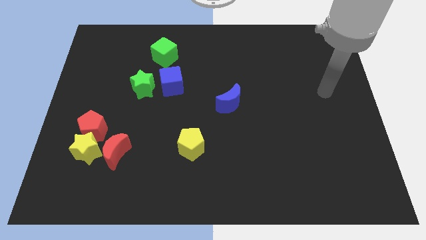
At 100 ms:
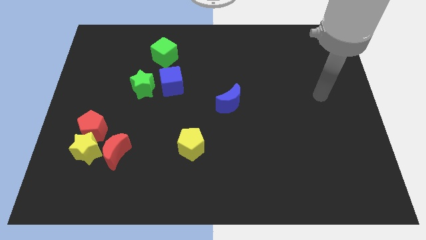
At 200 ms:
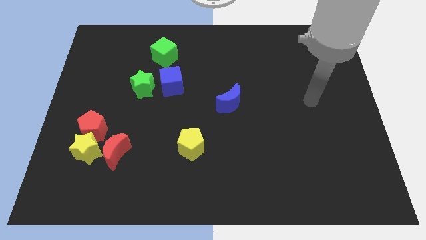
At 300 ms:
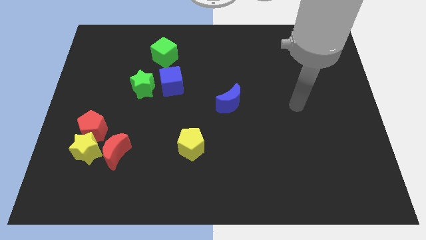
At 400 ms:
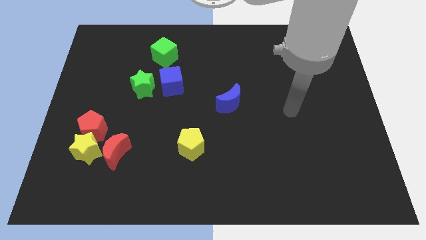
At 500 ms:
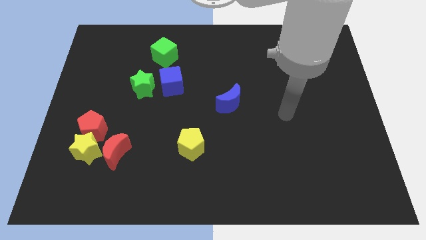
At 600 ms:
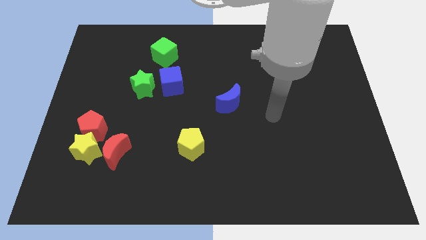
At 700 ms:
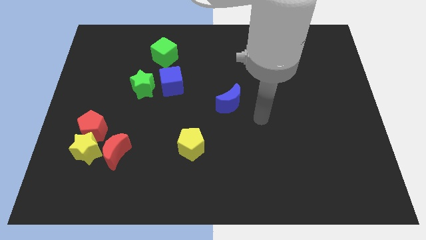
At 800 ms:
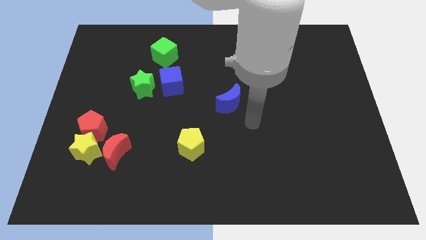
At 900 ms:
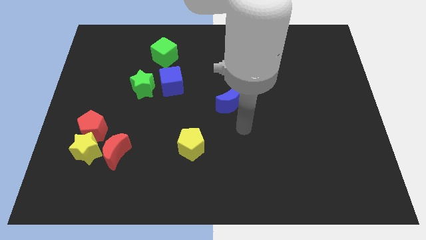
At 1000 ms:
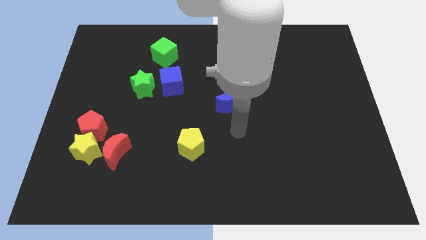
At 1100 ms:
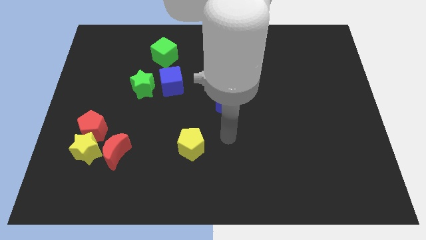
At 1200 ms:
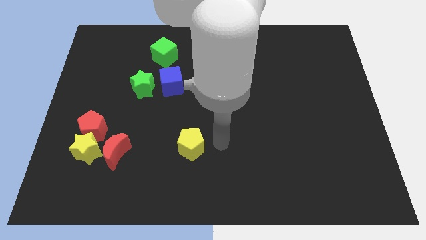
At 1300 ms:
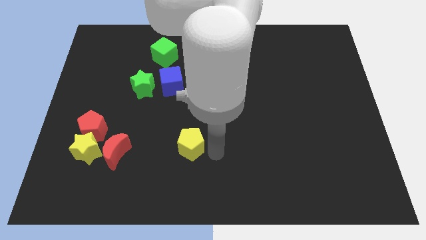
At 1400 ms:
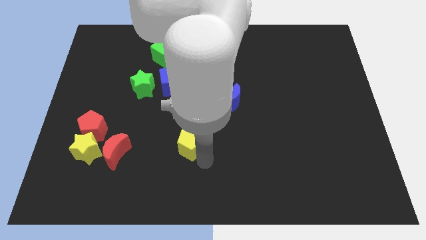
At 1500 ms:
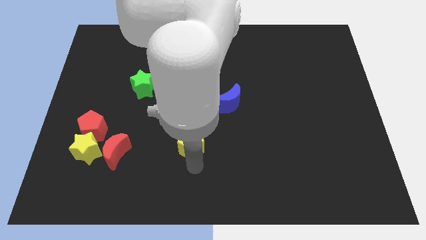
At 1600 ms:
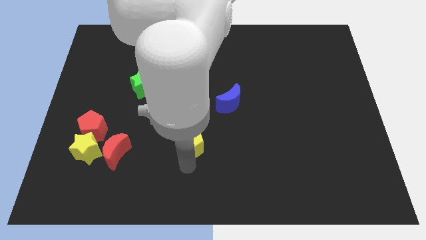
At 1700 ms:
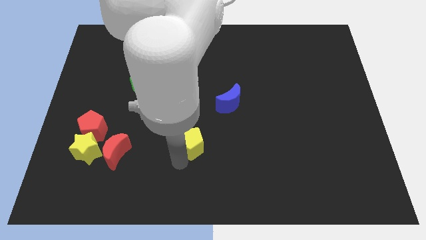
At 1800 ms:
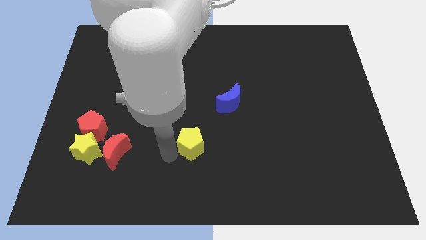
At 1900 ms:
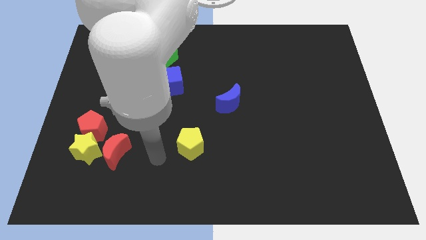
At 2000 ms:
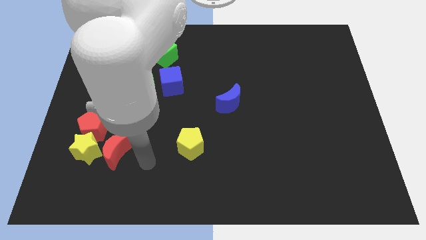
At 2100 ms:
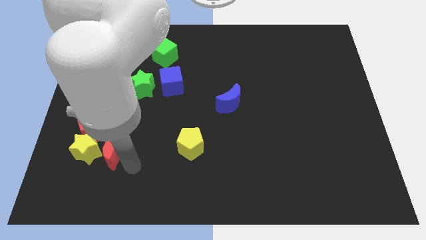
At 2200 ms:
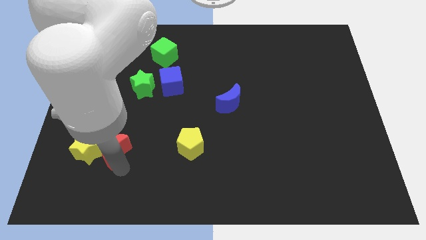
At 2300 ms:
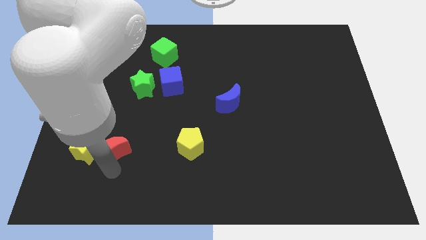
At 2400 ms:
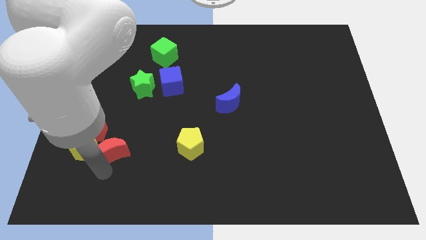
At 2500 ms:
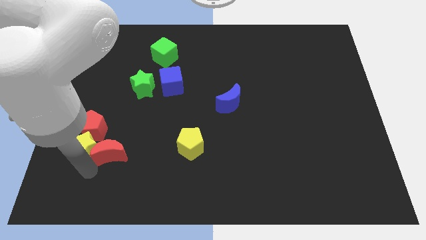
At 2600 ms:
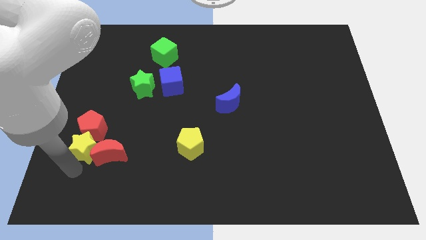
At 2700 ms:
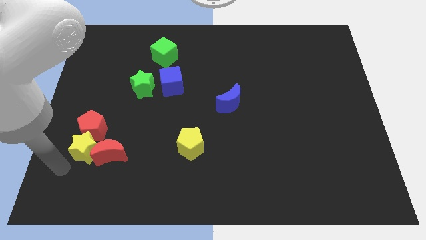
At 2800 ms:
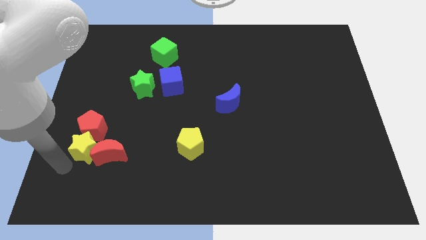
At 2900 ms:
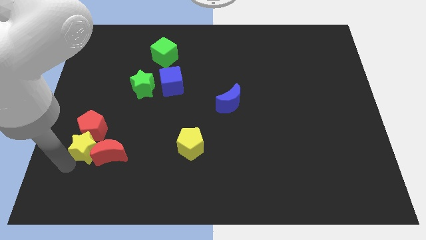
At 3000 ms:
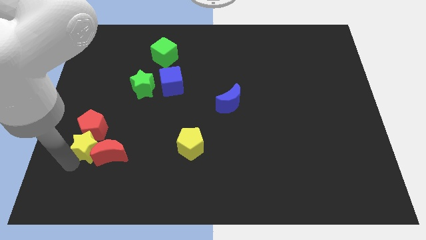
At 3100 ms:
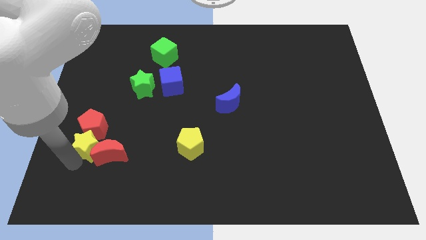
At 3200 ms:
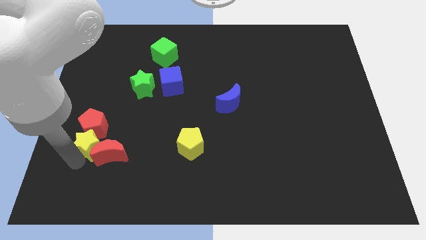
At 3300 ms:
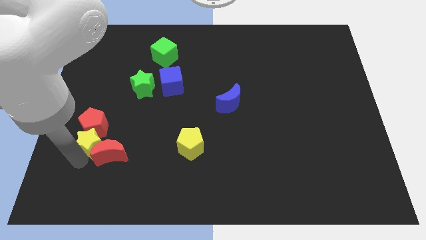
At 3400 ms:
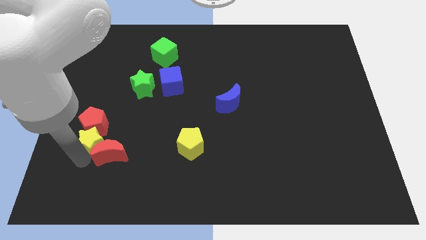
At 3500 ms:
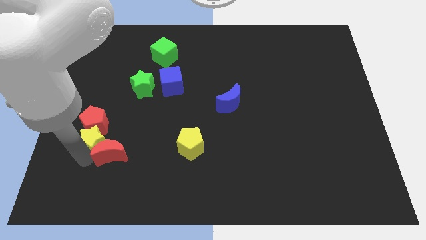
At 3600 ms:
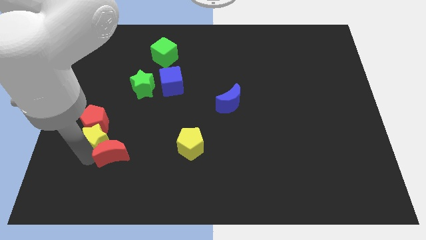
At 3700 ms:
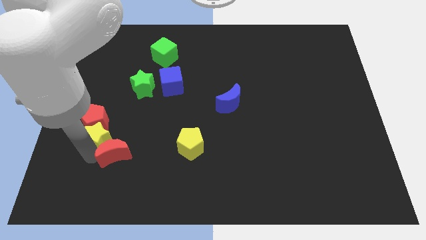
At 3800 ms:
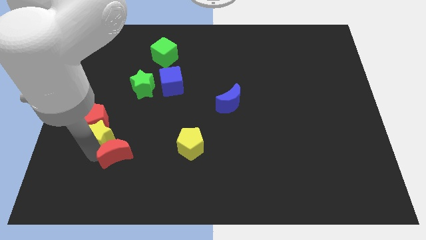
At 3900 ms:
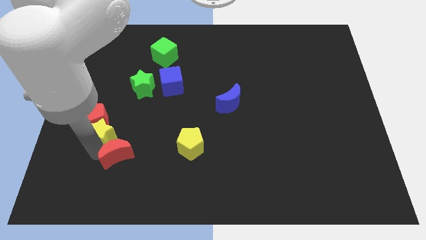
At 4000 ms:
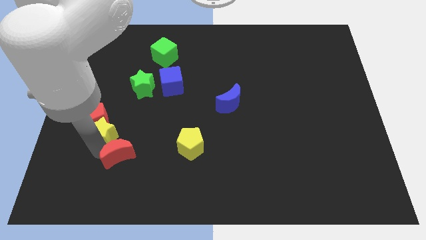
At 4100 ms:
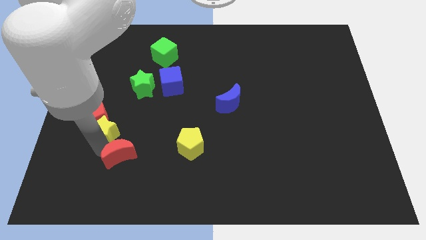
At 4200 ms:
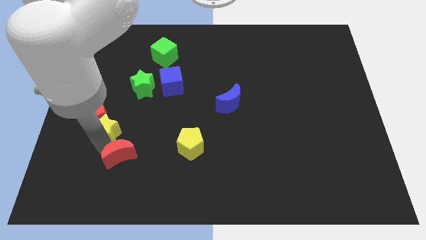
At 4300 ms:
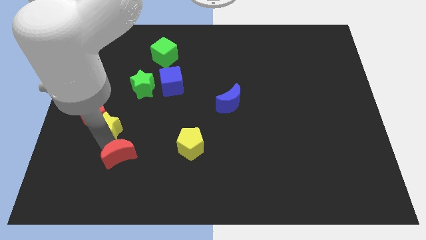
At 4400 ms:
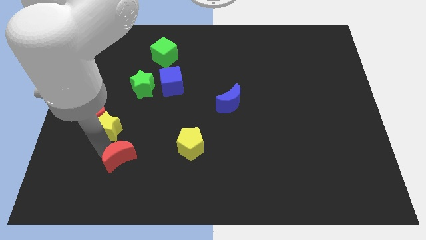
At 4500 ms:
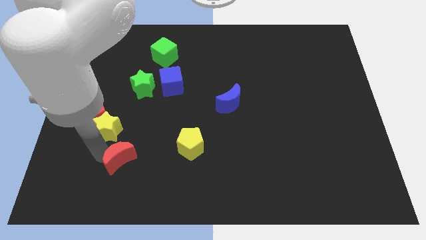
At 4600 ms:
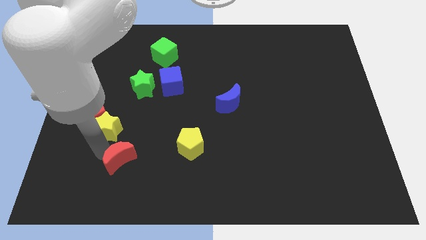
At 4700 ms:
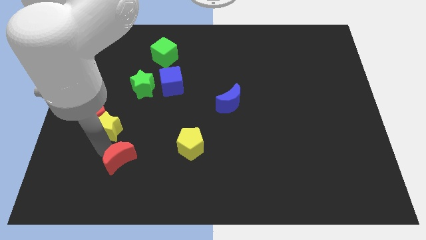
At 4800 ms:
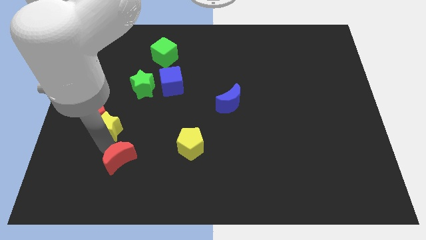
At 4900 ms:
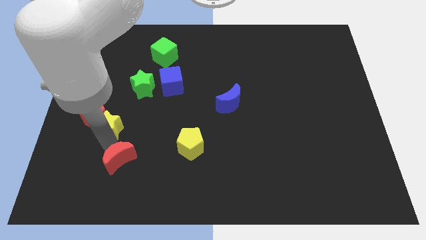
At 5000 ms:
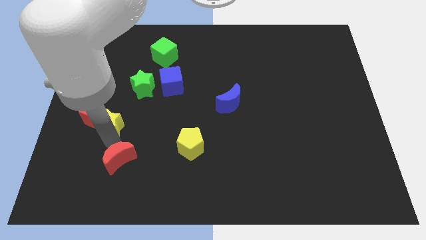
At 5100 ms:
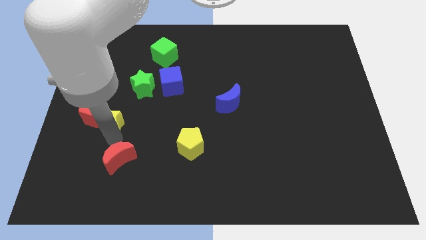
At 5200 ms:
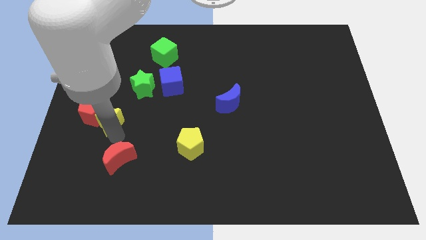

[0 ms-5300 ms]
slide the yellow star to the bottom left of the green star

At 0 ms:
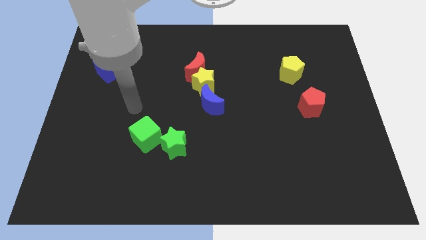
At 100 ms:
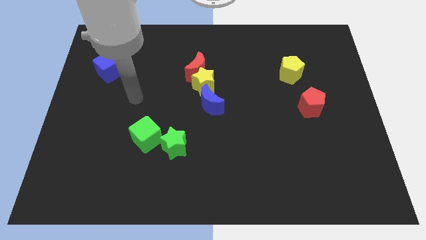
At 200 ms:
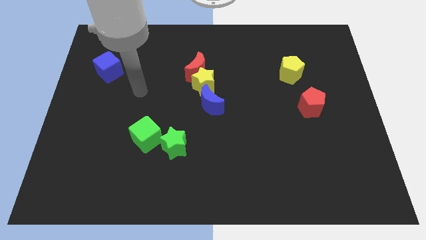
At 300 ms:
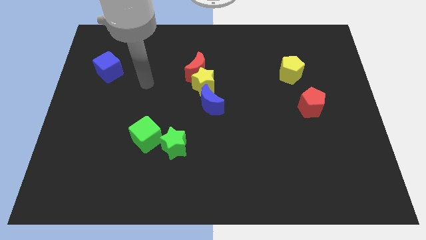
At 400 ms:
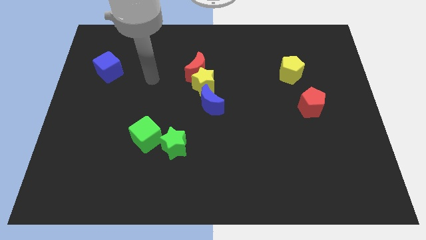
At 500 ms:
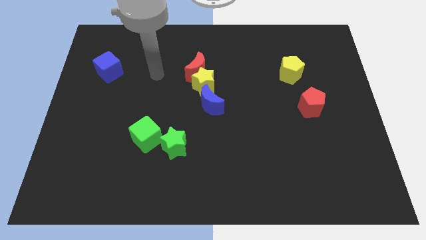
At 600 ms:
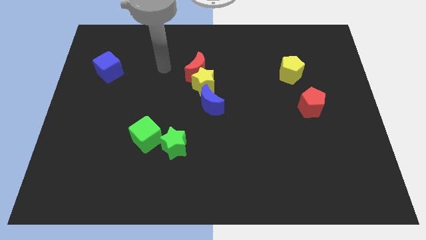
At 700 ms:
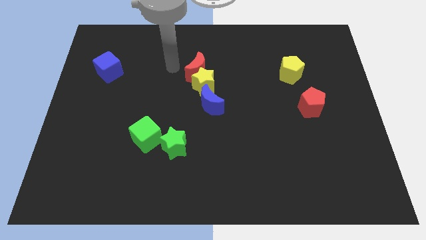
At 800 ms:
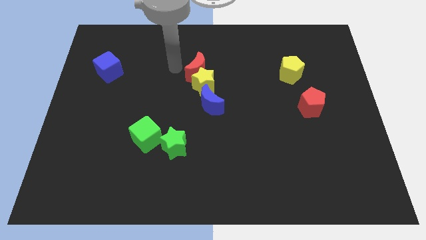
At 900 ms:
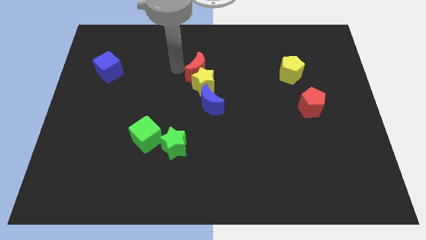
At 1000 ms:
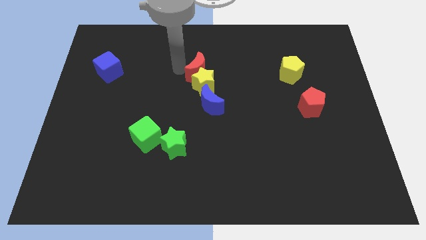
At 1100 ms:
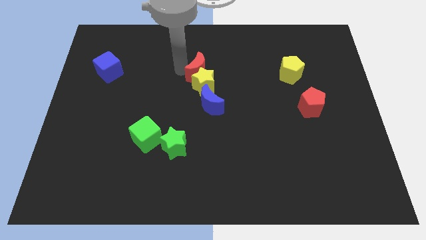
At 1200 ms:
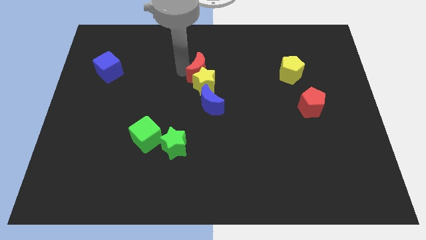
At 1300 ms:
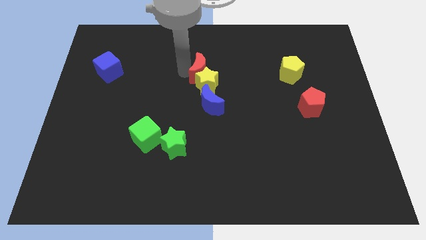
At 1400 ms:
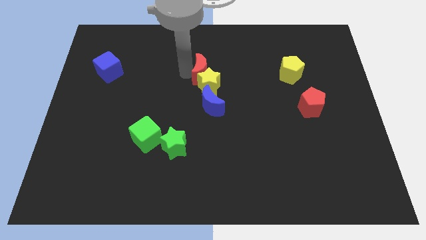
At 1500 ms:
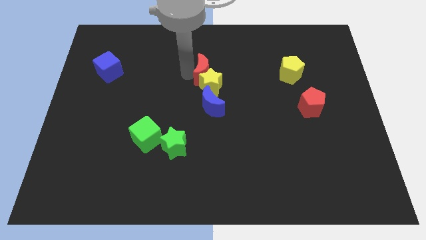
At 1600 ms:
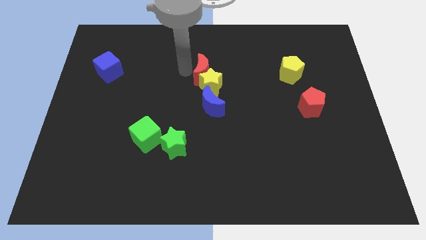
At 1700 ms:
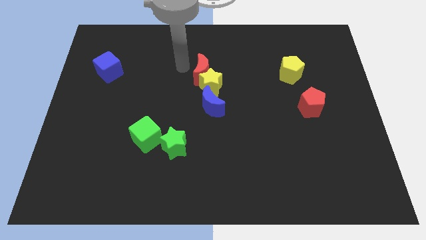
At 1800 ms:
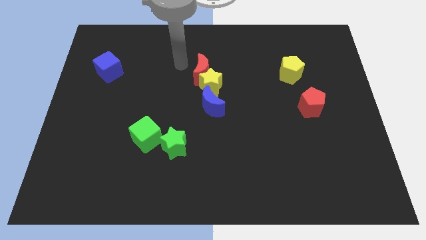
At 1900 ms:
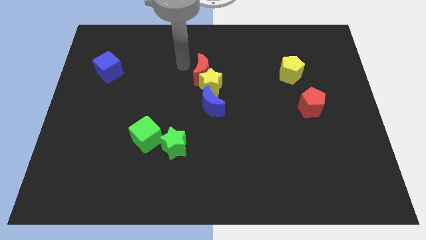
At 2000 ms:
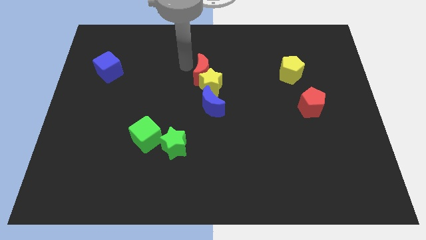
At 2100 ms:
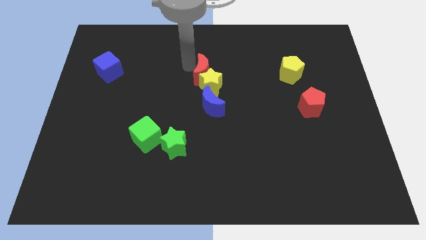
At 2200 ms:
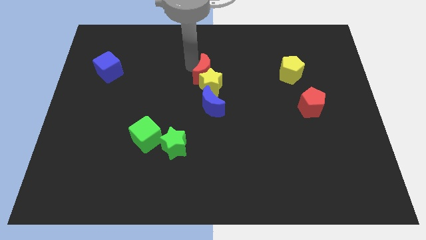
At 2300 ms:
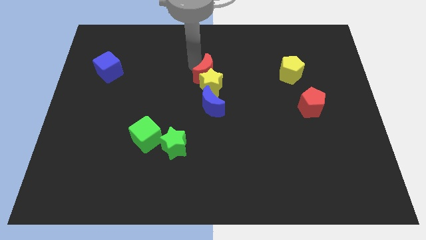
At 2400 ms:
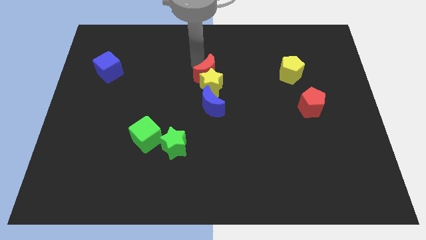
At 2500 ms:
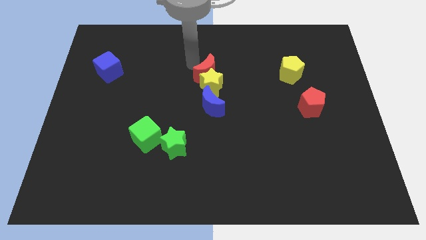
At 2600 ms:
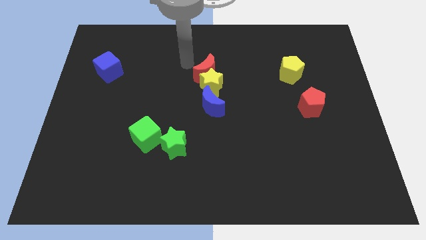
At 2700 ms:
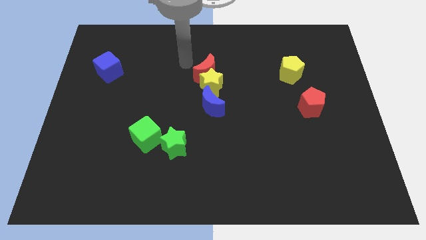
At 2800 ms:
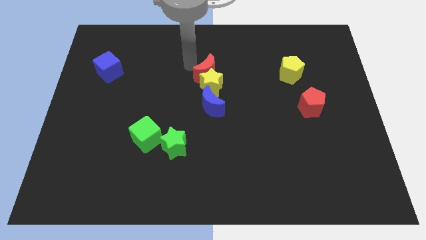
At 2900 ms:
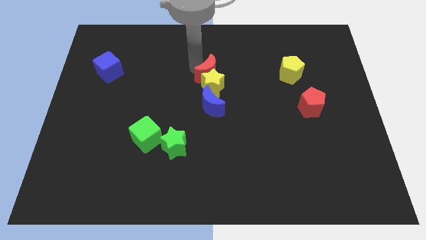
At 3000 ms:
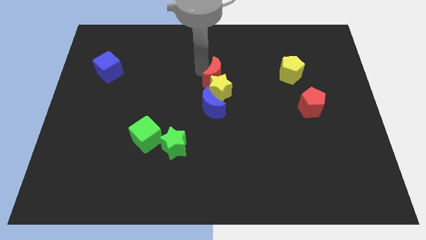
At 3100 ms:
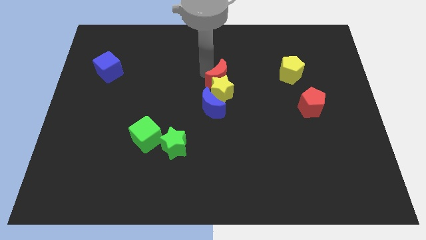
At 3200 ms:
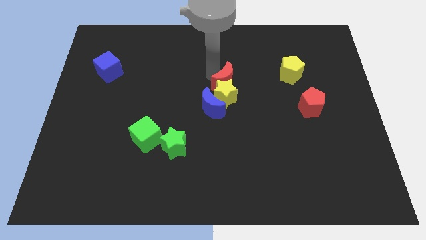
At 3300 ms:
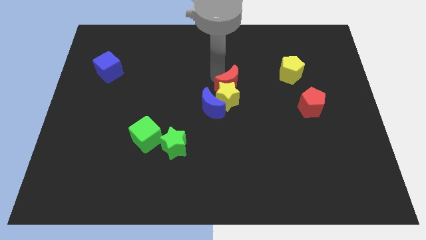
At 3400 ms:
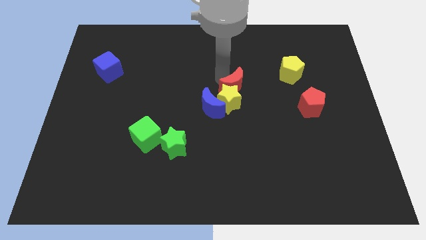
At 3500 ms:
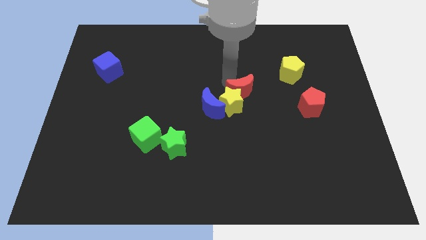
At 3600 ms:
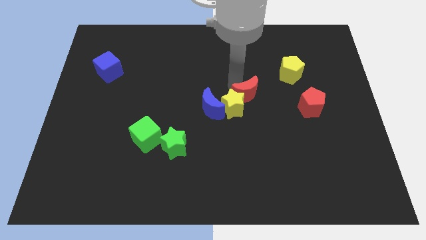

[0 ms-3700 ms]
slide the red moon right of the blue moon
